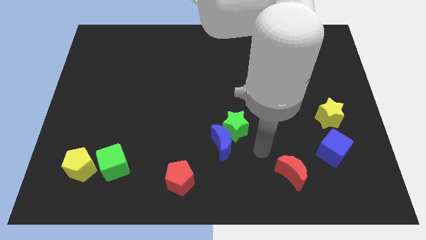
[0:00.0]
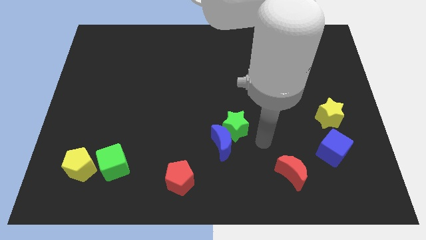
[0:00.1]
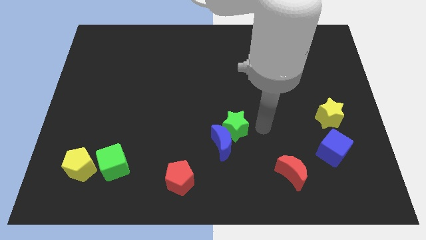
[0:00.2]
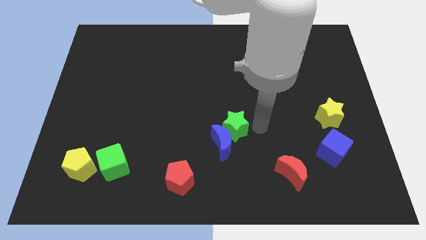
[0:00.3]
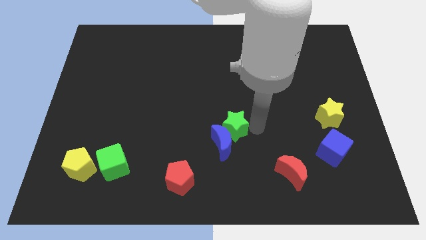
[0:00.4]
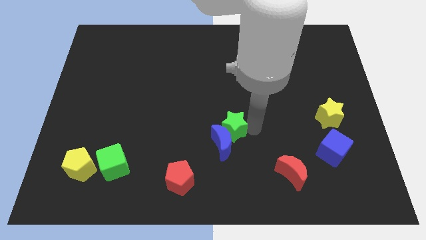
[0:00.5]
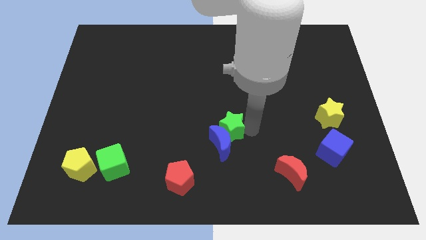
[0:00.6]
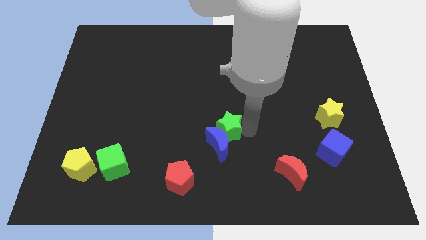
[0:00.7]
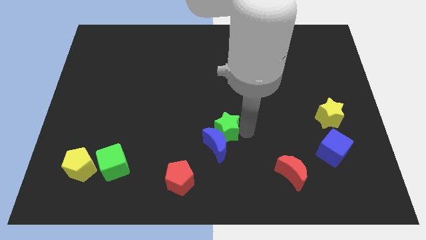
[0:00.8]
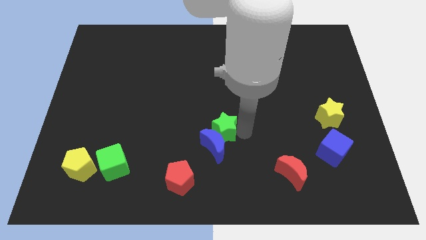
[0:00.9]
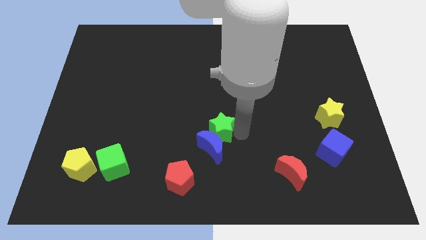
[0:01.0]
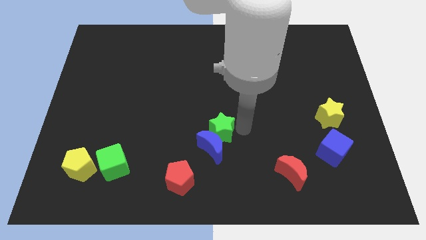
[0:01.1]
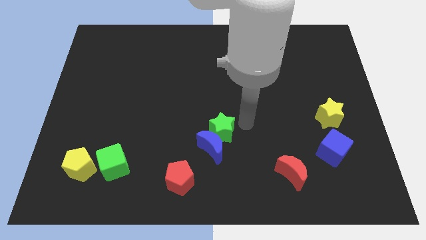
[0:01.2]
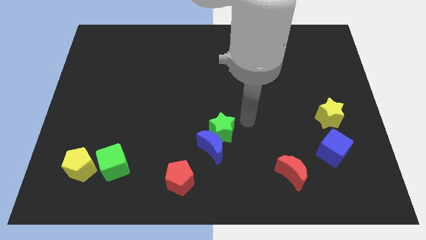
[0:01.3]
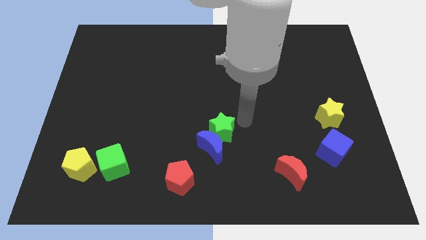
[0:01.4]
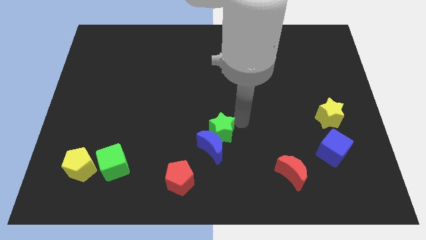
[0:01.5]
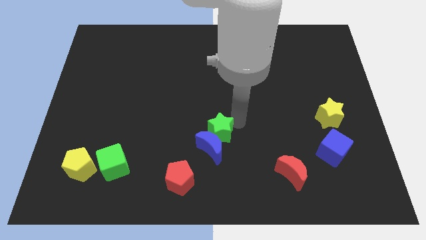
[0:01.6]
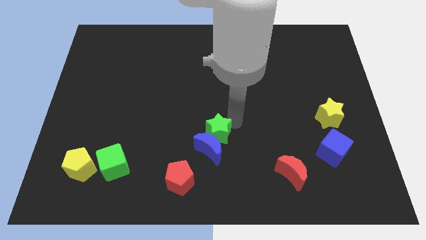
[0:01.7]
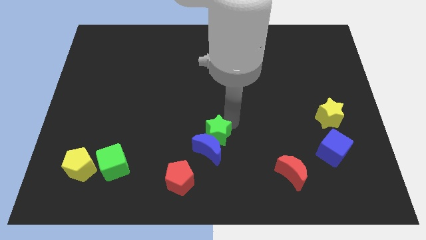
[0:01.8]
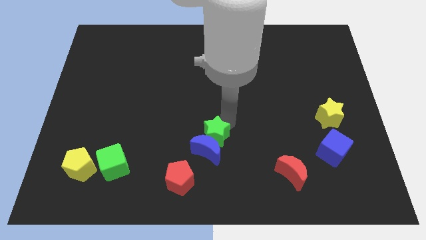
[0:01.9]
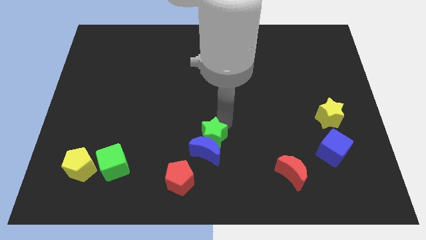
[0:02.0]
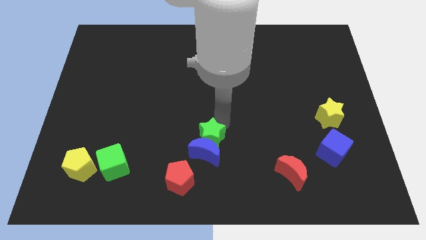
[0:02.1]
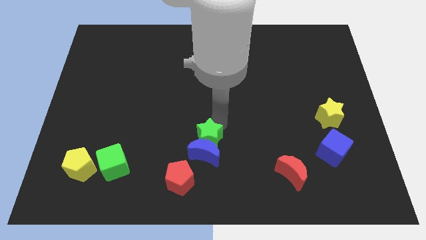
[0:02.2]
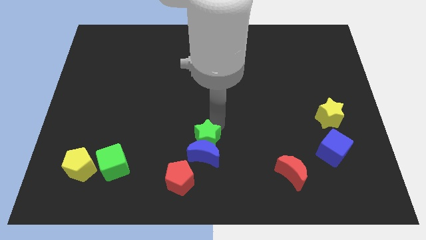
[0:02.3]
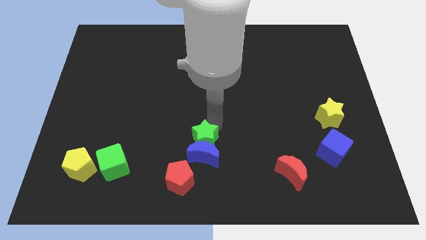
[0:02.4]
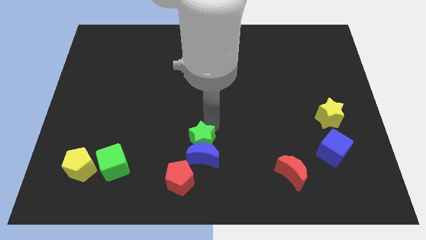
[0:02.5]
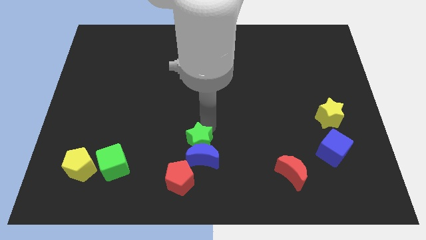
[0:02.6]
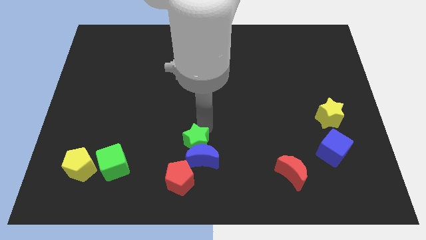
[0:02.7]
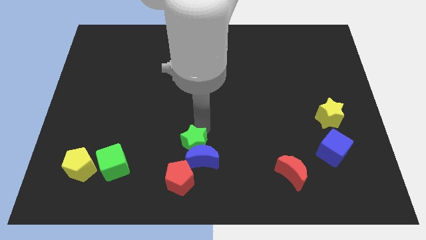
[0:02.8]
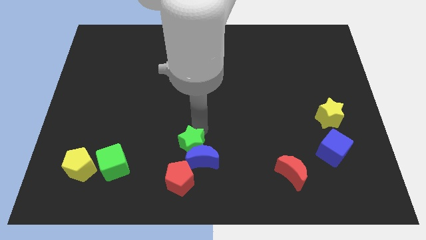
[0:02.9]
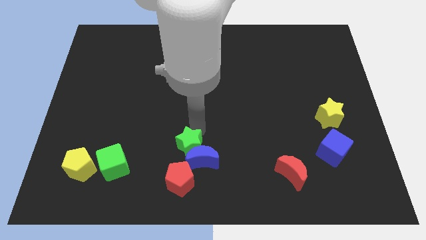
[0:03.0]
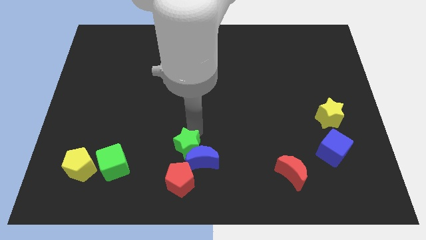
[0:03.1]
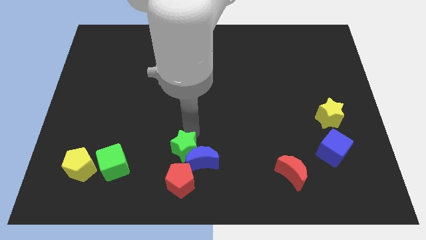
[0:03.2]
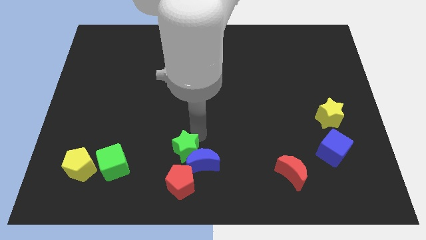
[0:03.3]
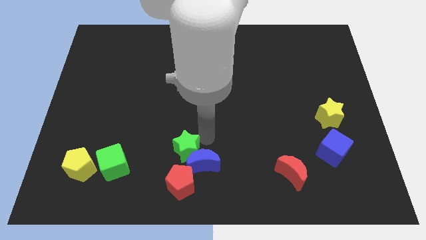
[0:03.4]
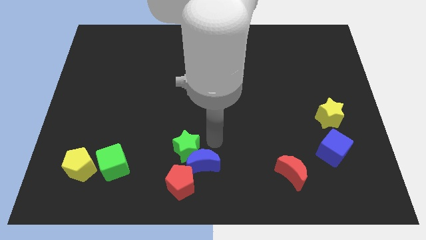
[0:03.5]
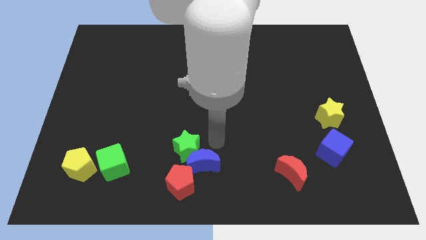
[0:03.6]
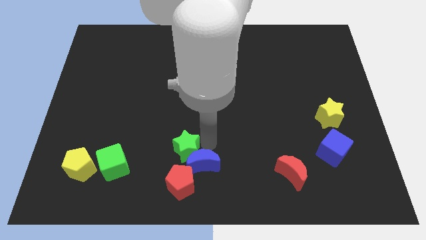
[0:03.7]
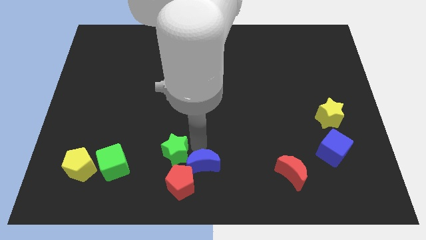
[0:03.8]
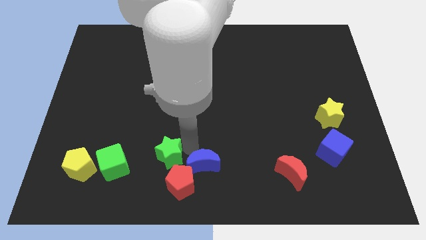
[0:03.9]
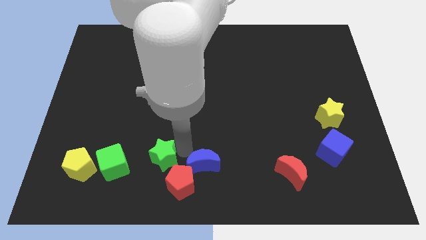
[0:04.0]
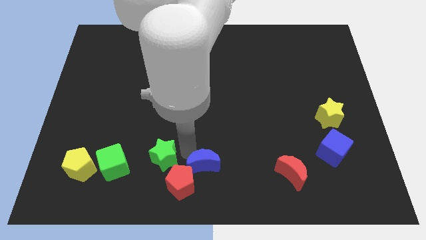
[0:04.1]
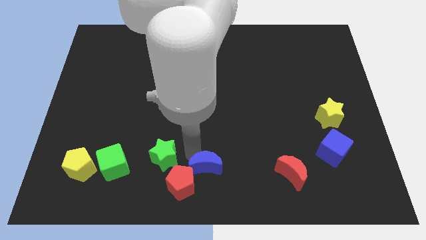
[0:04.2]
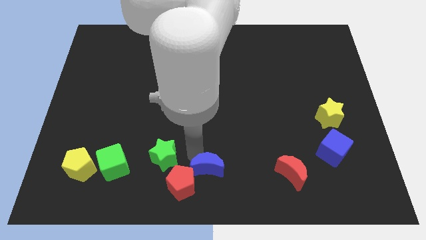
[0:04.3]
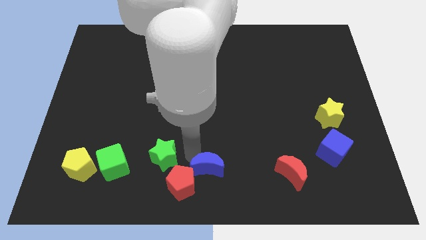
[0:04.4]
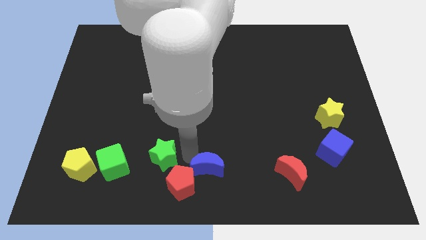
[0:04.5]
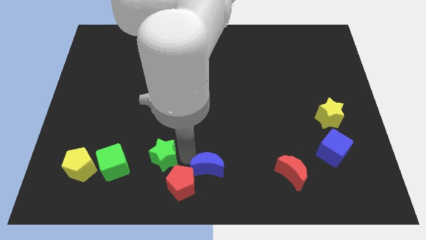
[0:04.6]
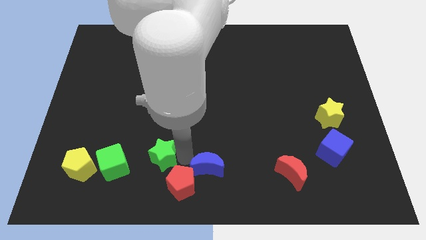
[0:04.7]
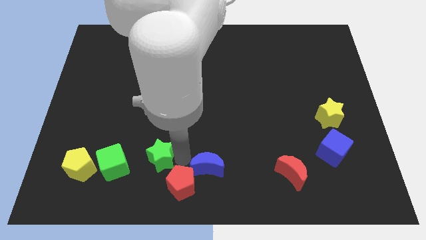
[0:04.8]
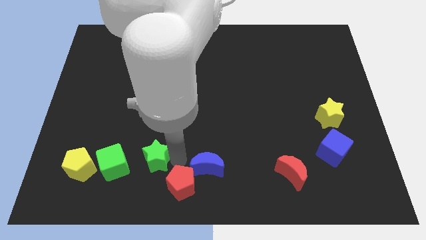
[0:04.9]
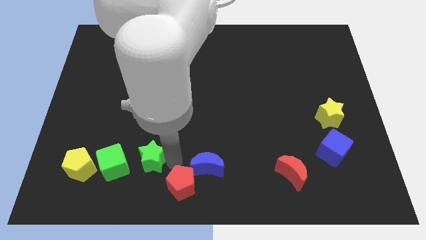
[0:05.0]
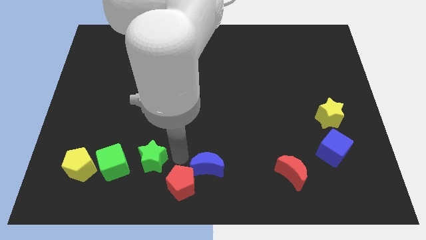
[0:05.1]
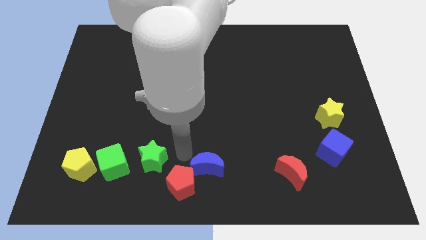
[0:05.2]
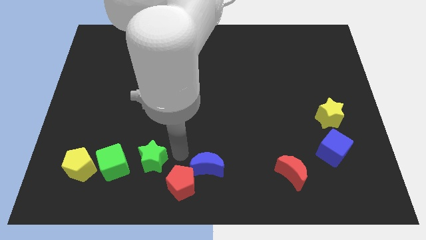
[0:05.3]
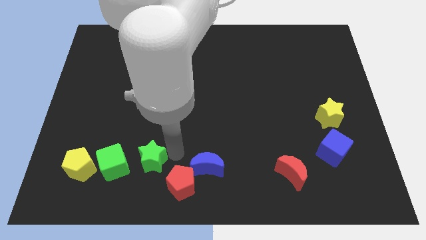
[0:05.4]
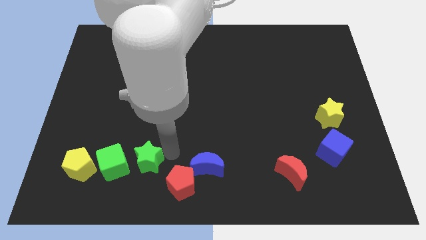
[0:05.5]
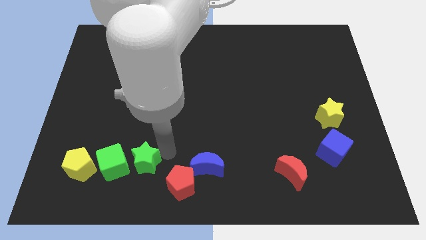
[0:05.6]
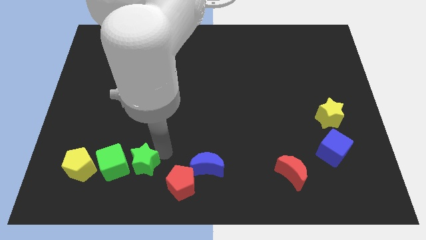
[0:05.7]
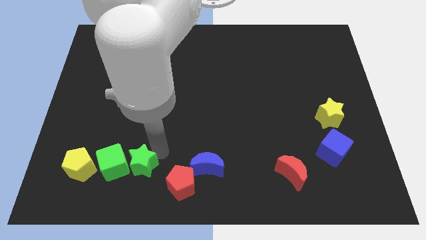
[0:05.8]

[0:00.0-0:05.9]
push the green star next to the green cube

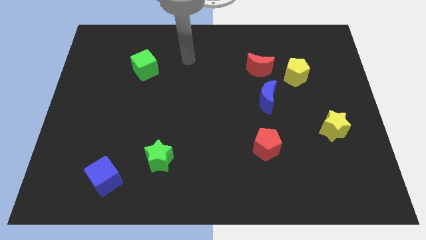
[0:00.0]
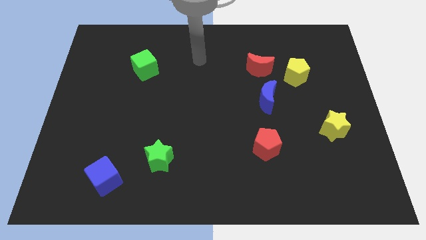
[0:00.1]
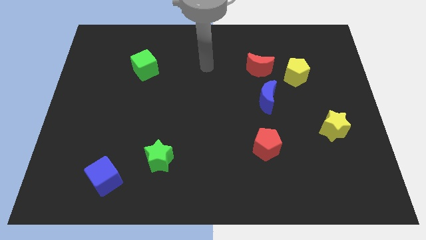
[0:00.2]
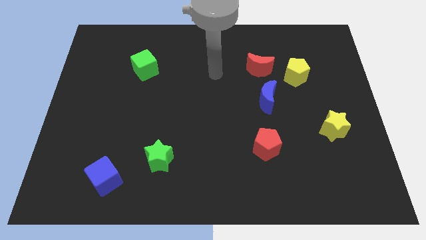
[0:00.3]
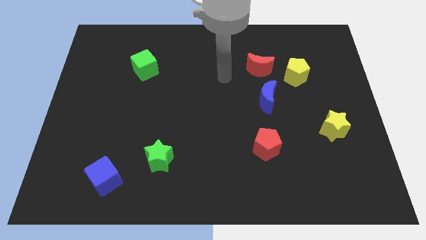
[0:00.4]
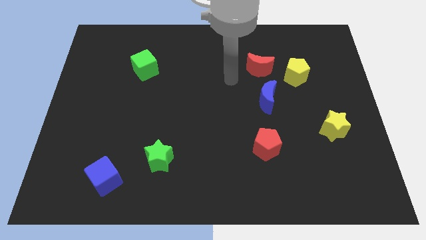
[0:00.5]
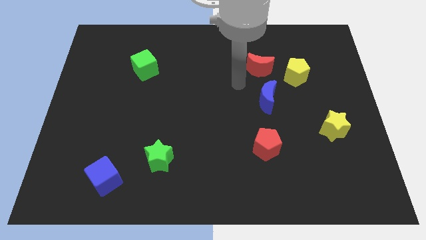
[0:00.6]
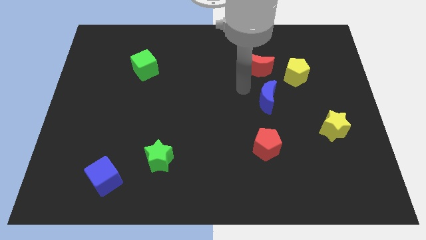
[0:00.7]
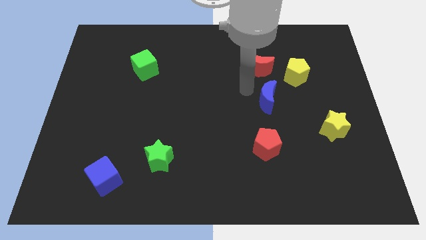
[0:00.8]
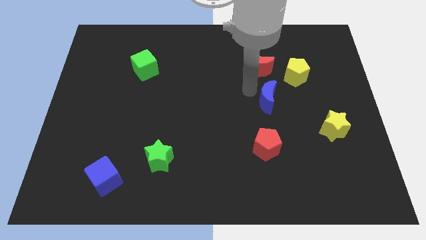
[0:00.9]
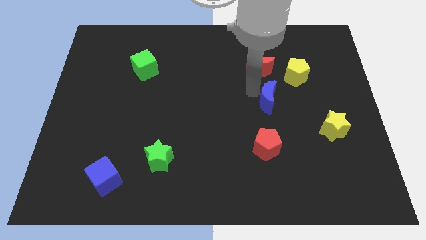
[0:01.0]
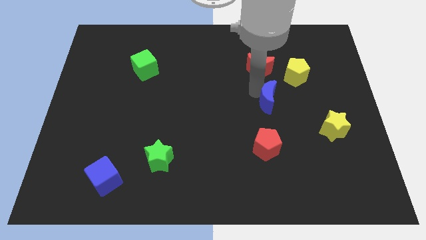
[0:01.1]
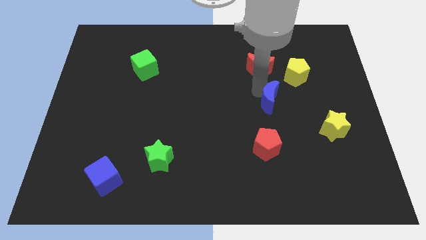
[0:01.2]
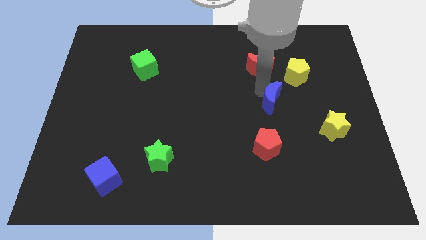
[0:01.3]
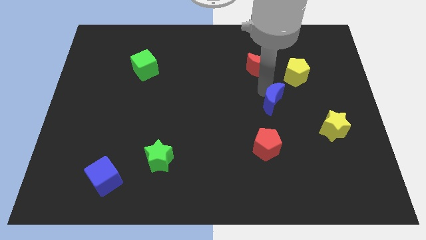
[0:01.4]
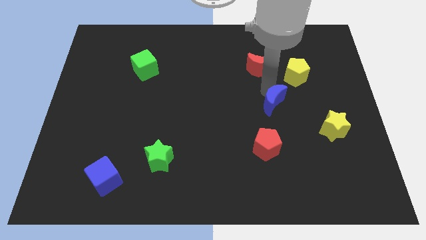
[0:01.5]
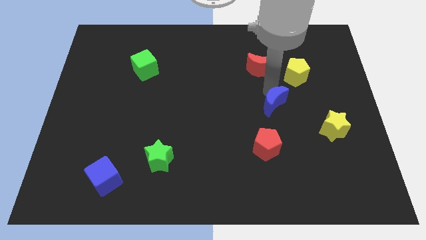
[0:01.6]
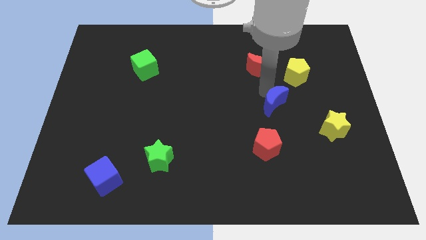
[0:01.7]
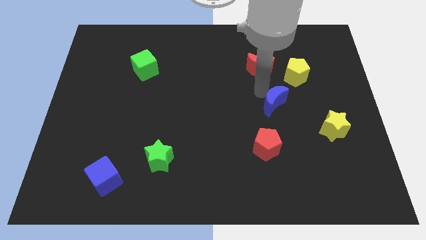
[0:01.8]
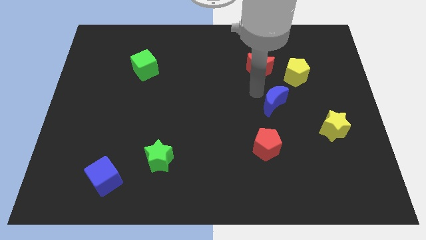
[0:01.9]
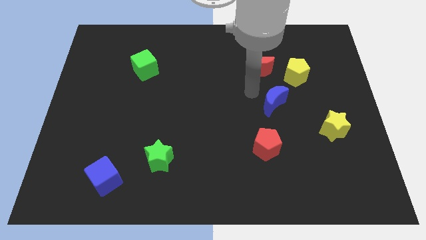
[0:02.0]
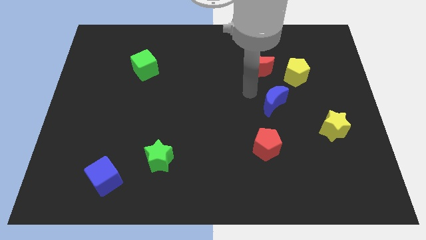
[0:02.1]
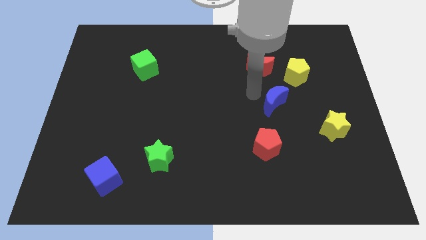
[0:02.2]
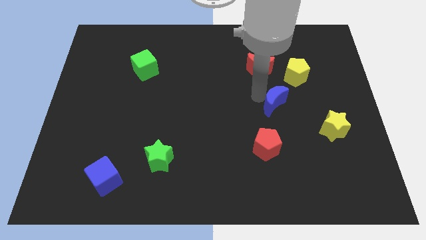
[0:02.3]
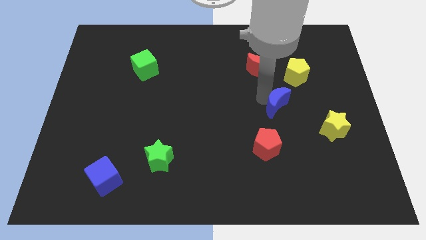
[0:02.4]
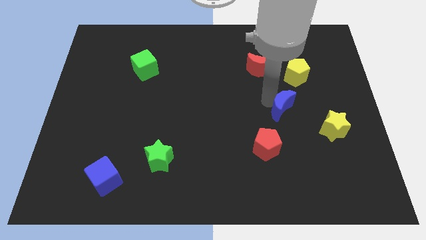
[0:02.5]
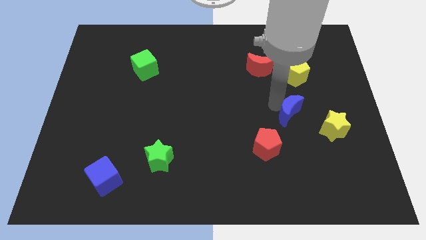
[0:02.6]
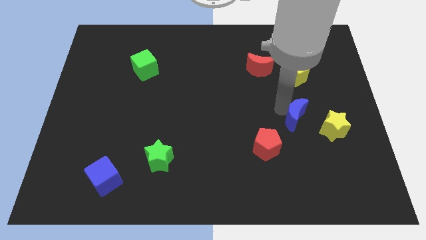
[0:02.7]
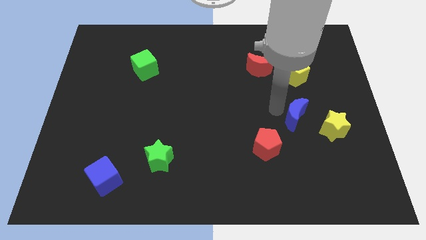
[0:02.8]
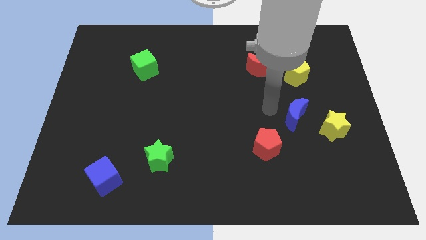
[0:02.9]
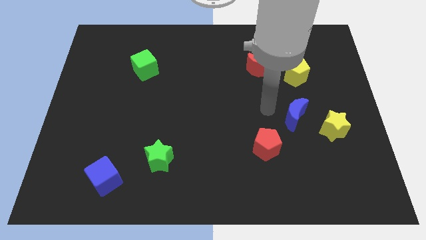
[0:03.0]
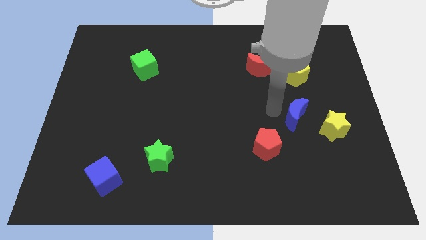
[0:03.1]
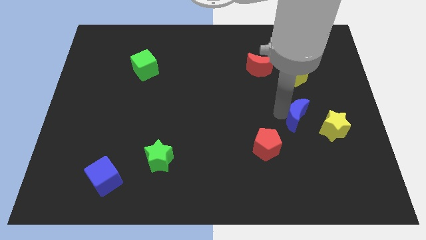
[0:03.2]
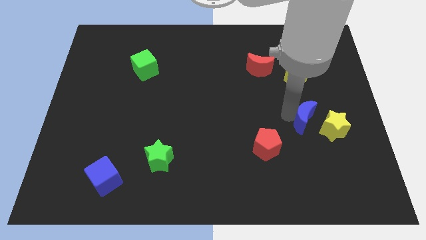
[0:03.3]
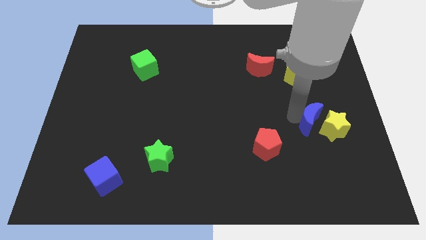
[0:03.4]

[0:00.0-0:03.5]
move the blue moon next to the yellow star
